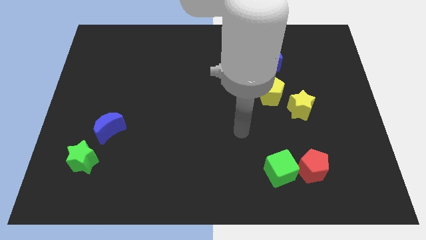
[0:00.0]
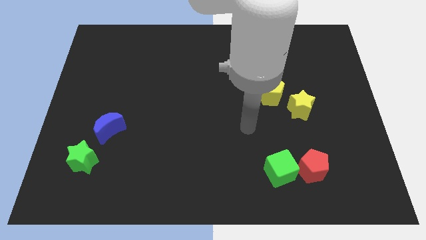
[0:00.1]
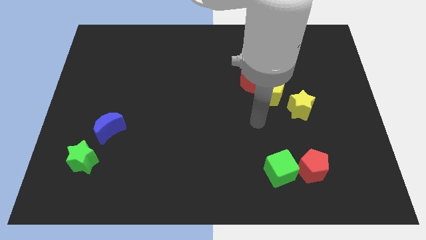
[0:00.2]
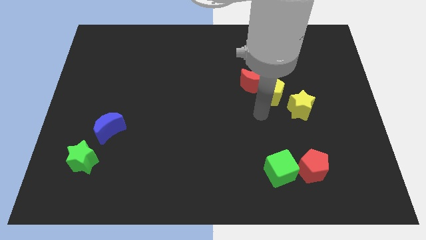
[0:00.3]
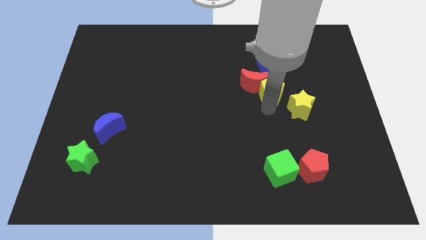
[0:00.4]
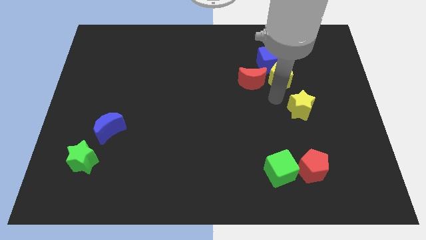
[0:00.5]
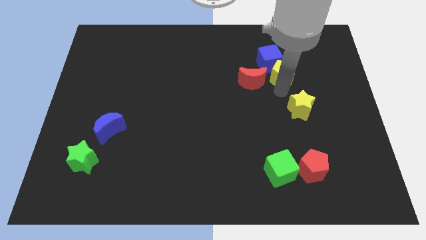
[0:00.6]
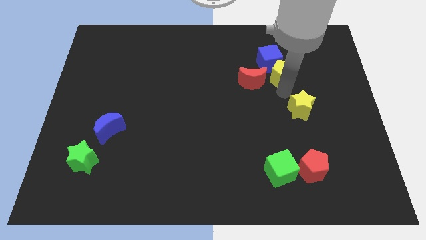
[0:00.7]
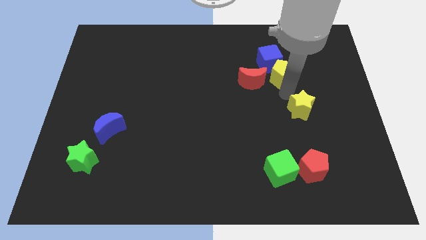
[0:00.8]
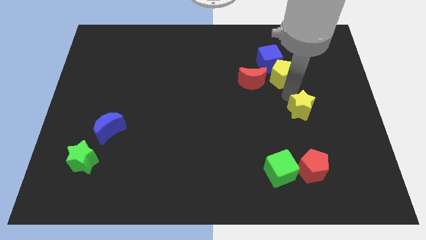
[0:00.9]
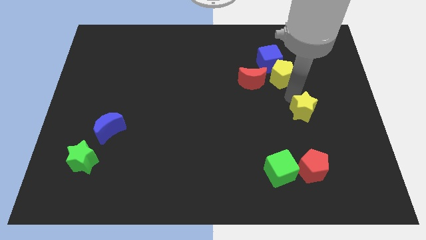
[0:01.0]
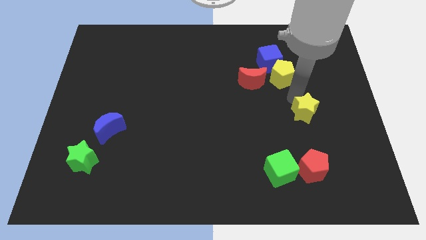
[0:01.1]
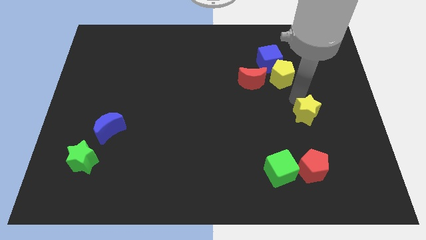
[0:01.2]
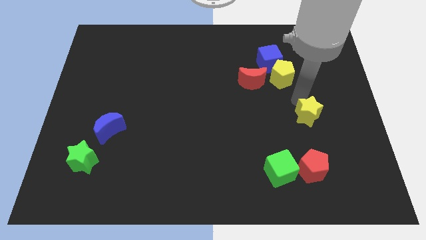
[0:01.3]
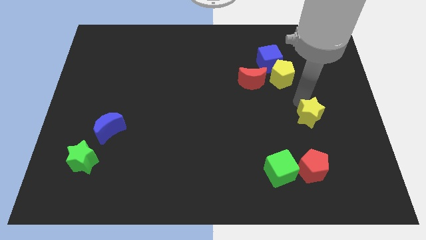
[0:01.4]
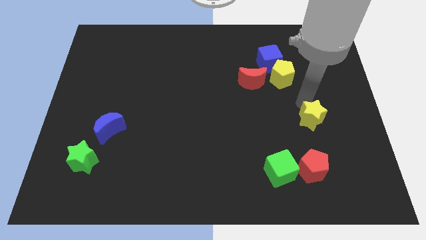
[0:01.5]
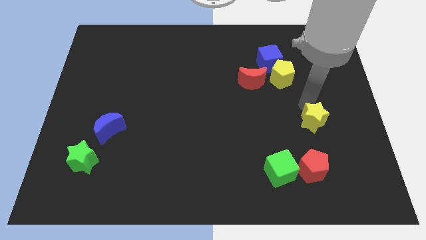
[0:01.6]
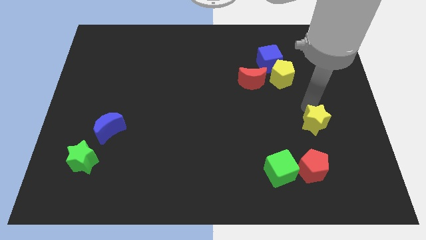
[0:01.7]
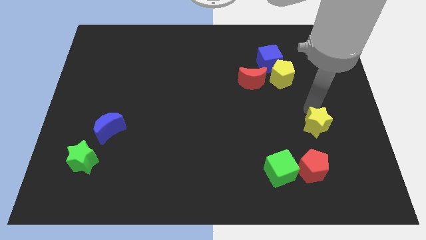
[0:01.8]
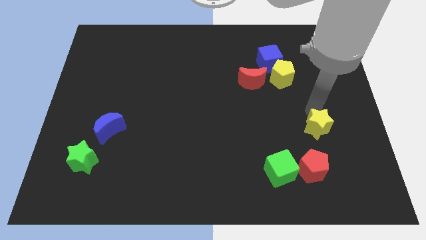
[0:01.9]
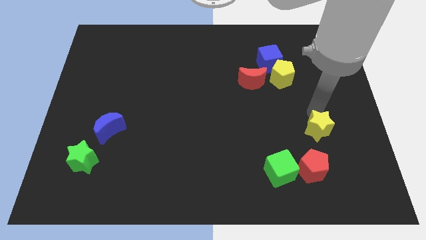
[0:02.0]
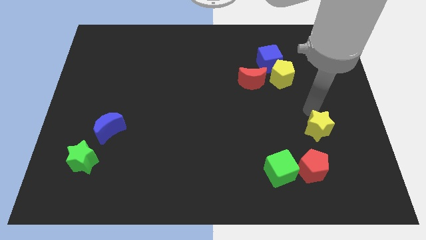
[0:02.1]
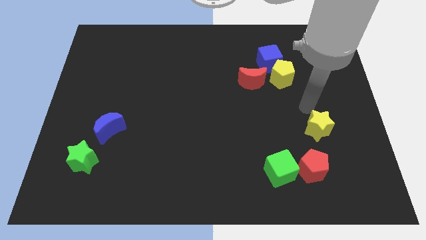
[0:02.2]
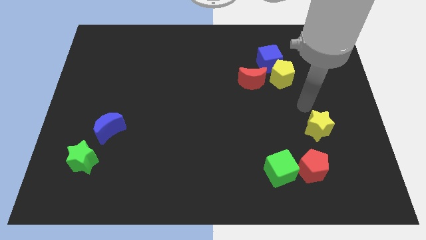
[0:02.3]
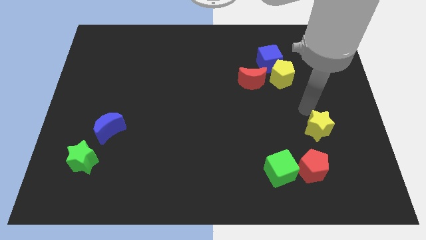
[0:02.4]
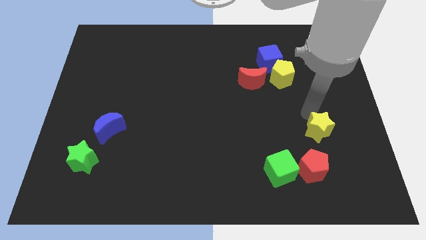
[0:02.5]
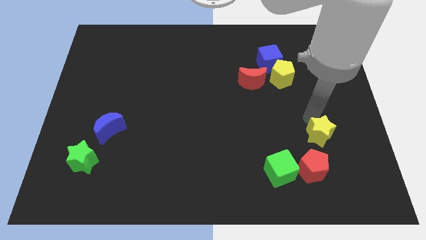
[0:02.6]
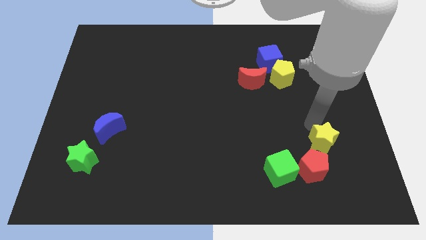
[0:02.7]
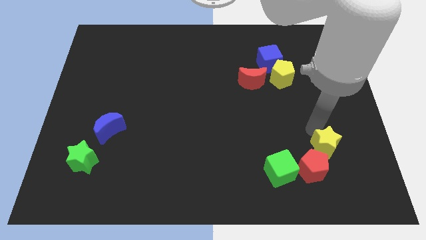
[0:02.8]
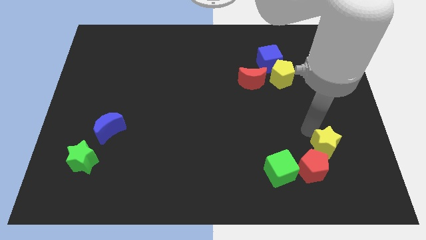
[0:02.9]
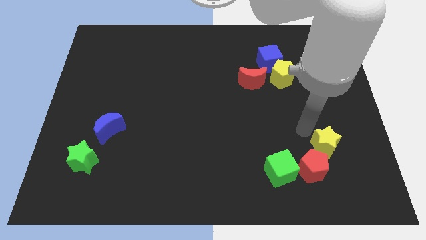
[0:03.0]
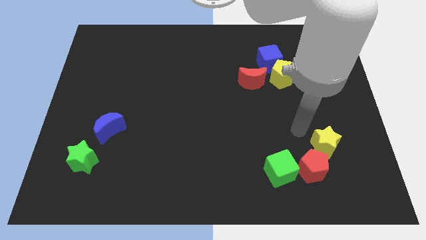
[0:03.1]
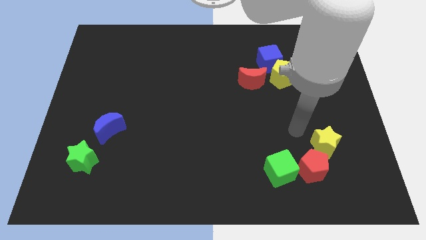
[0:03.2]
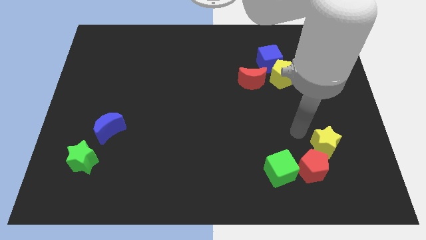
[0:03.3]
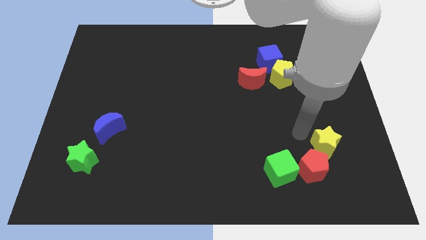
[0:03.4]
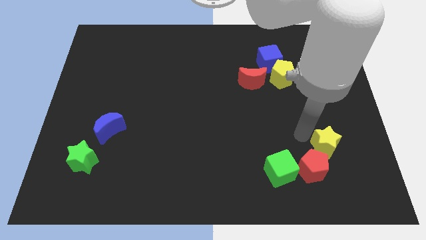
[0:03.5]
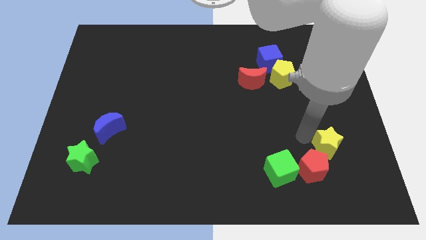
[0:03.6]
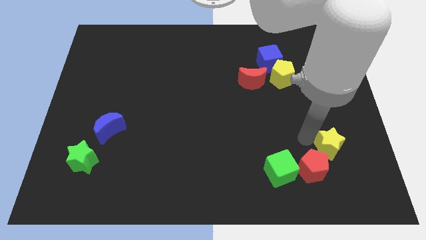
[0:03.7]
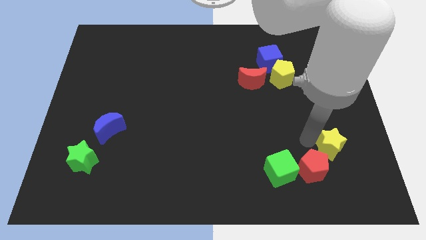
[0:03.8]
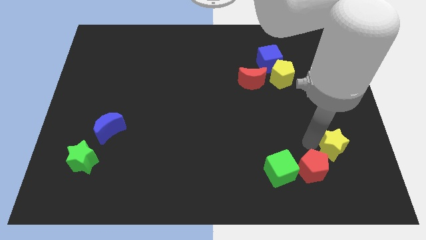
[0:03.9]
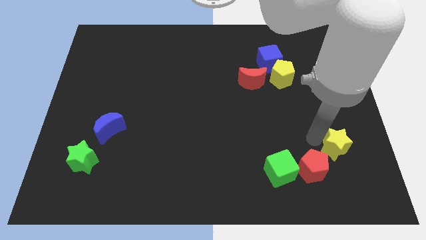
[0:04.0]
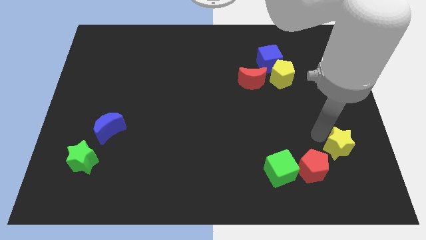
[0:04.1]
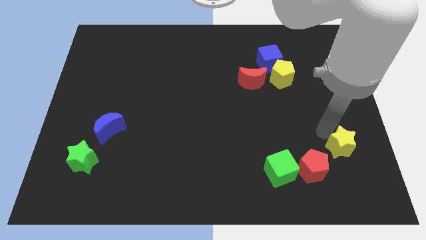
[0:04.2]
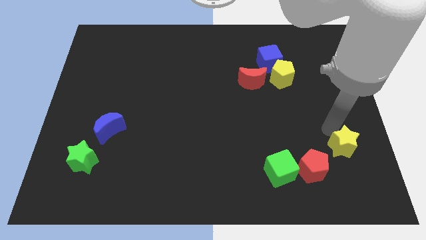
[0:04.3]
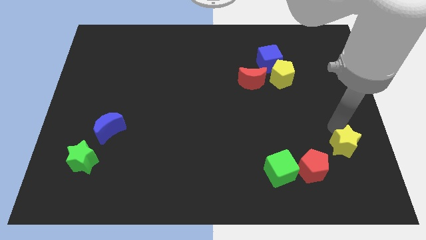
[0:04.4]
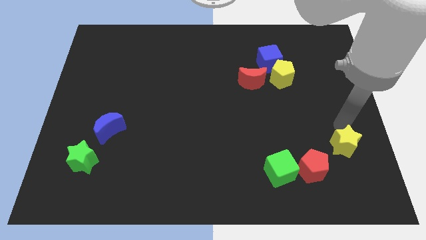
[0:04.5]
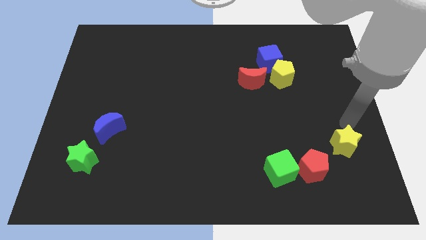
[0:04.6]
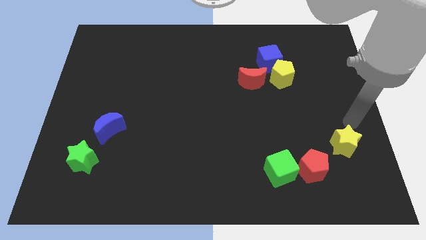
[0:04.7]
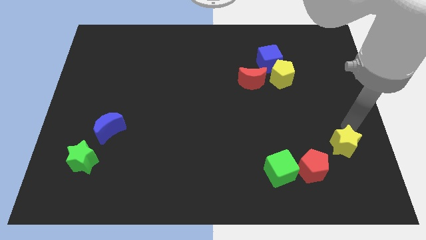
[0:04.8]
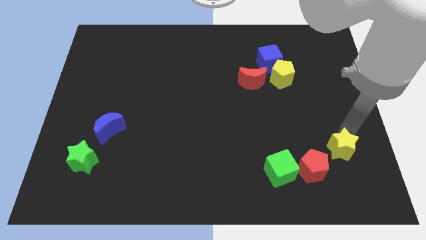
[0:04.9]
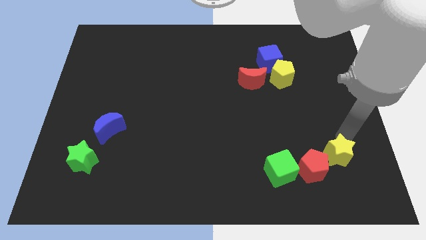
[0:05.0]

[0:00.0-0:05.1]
move the yellow star just right of the green cube

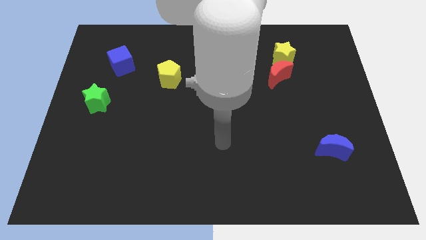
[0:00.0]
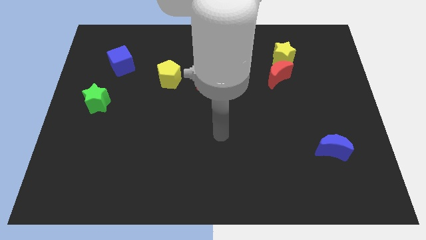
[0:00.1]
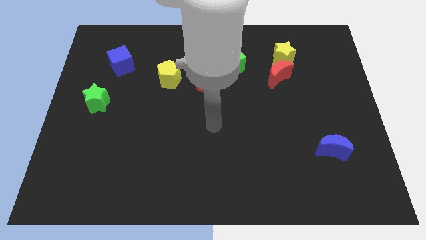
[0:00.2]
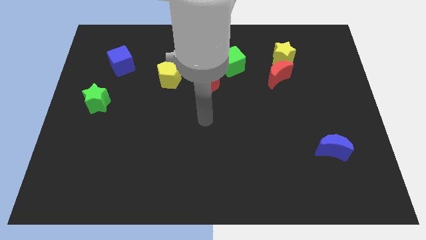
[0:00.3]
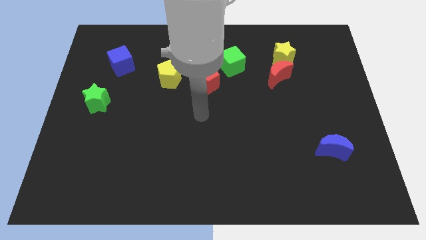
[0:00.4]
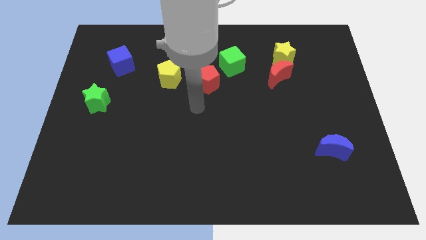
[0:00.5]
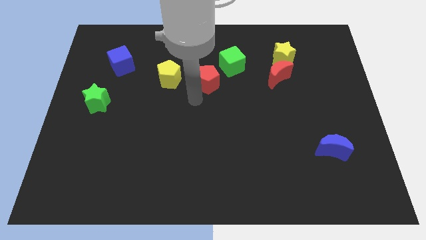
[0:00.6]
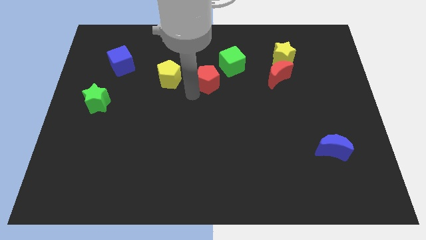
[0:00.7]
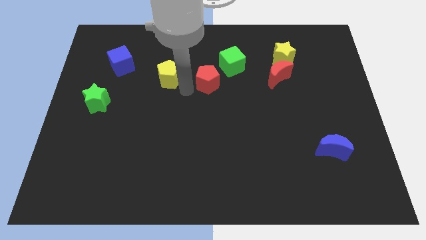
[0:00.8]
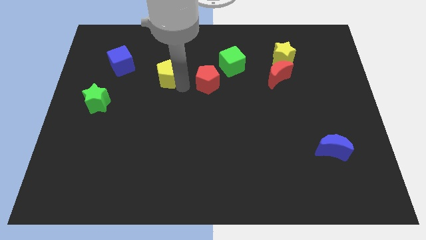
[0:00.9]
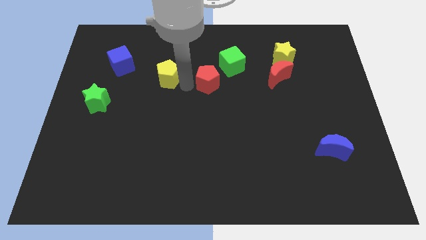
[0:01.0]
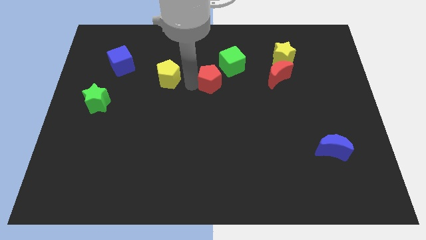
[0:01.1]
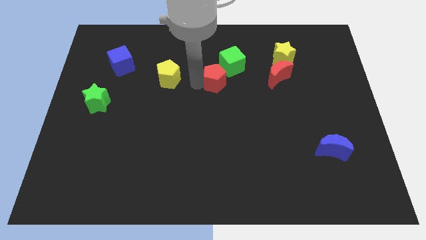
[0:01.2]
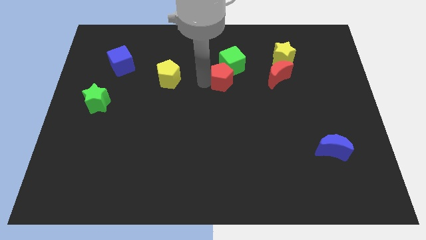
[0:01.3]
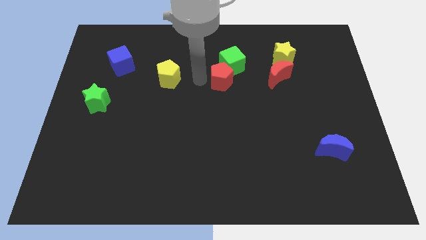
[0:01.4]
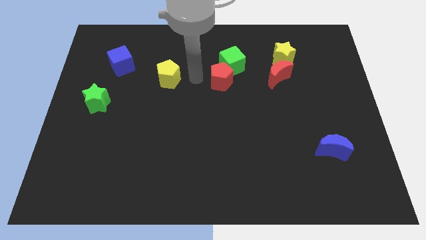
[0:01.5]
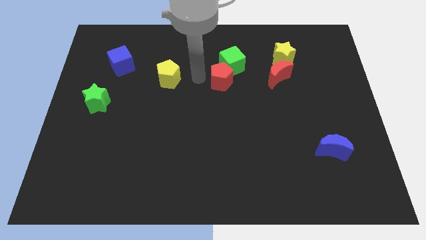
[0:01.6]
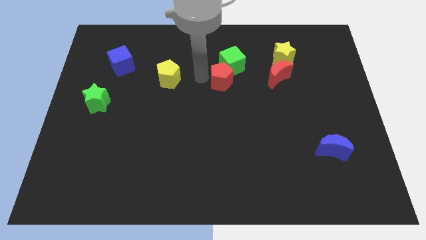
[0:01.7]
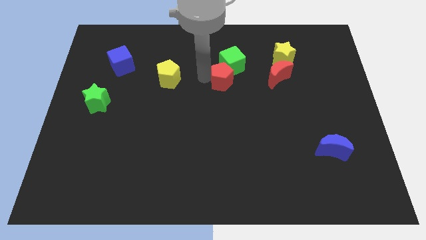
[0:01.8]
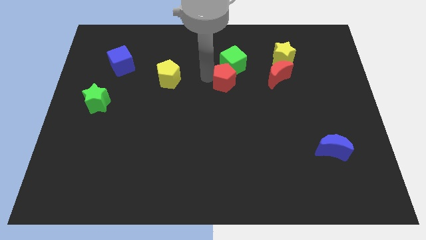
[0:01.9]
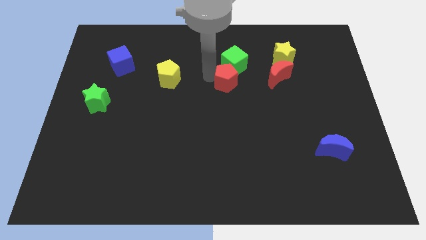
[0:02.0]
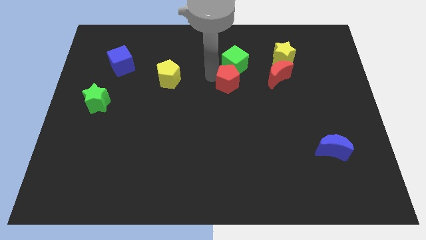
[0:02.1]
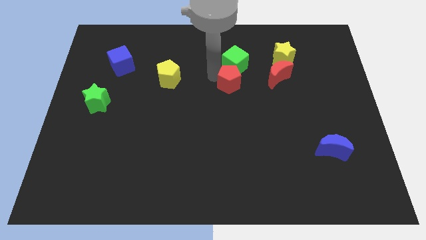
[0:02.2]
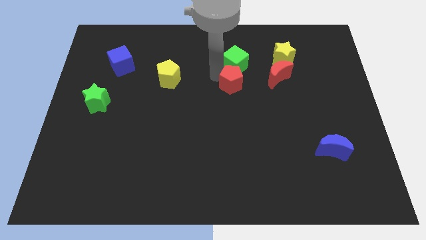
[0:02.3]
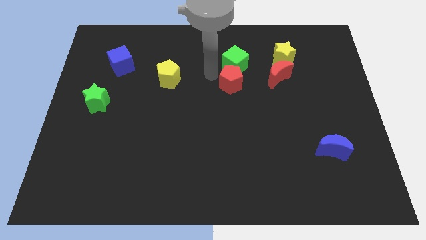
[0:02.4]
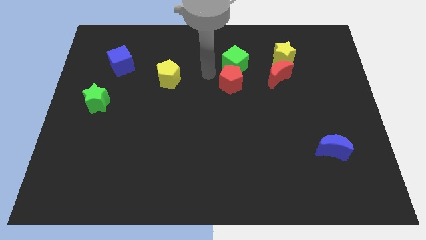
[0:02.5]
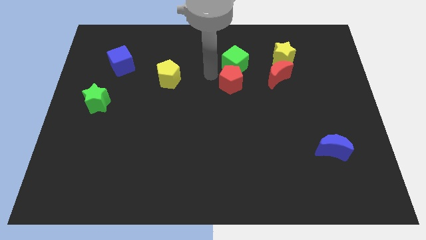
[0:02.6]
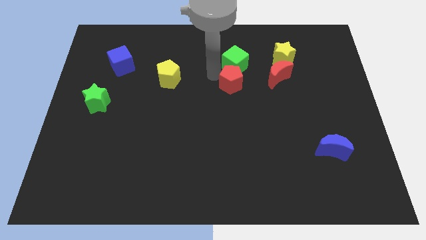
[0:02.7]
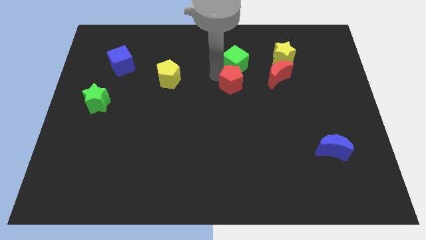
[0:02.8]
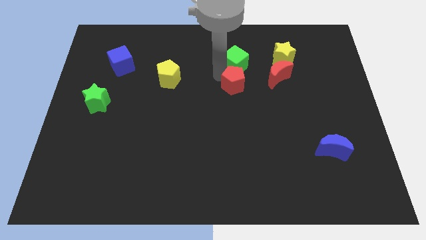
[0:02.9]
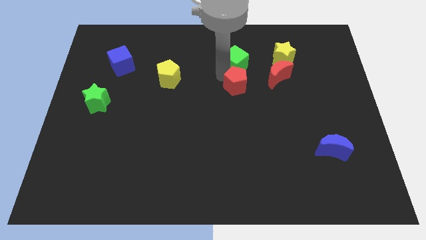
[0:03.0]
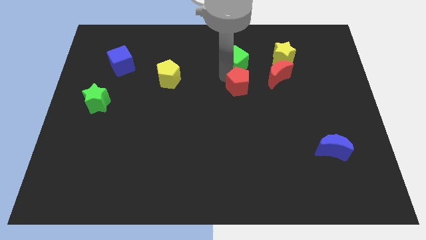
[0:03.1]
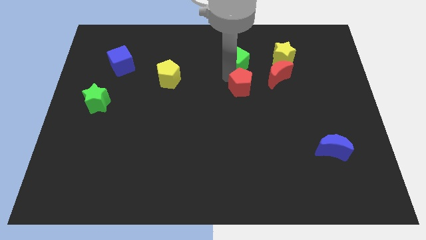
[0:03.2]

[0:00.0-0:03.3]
move the red pentagon to the bottom left side of the red moon
